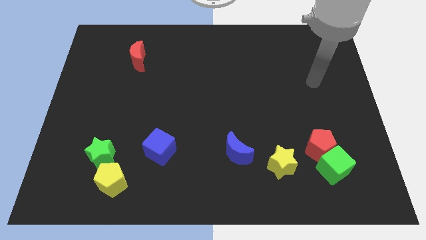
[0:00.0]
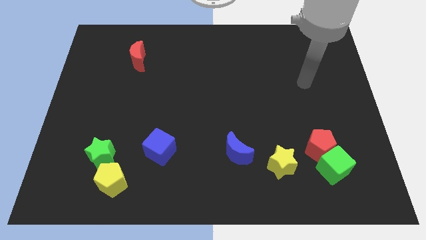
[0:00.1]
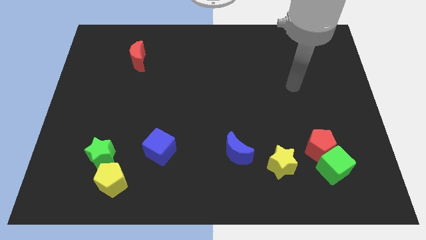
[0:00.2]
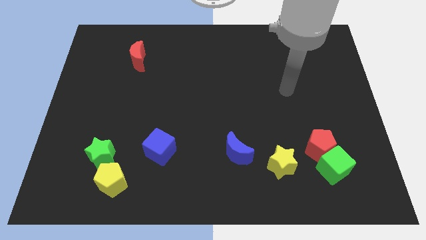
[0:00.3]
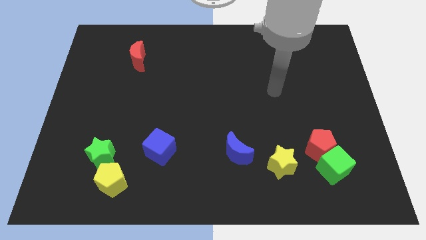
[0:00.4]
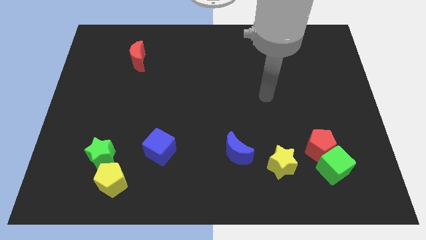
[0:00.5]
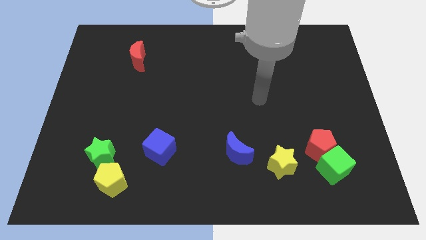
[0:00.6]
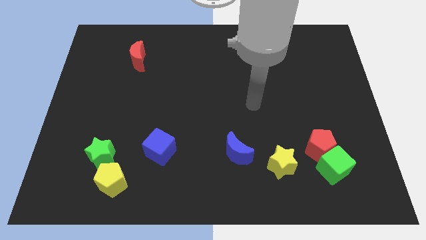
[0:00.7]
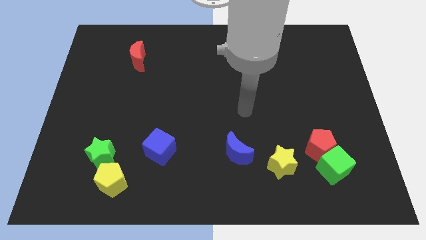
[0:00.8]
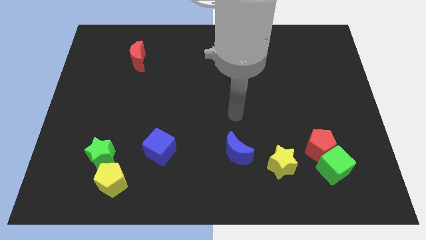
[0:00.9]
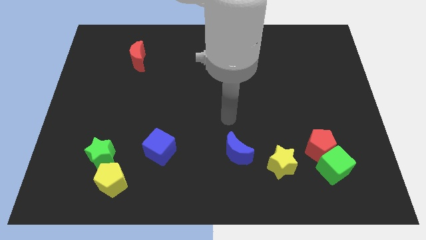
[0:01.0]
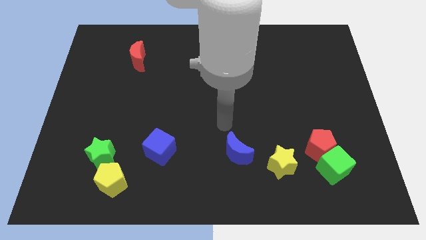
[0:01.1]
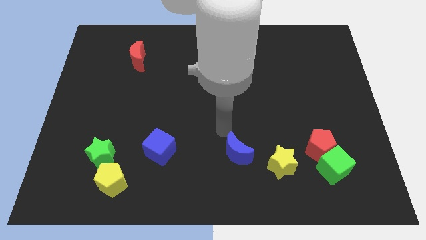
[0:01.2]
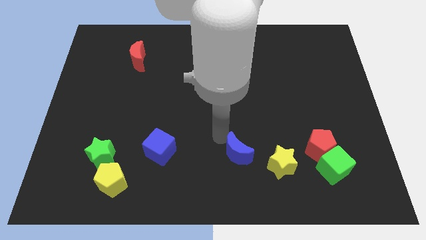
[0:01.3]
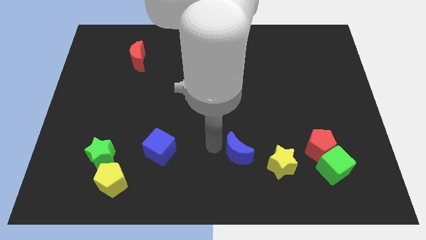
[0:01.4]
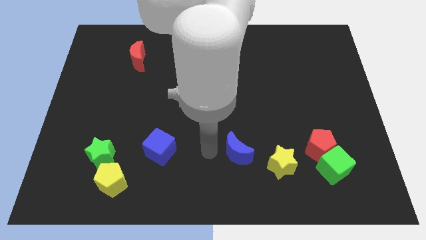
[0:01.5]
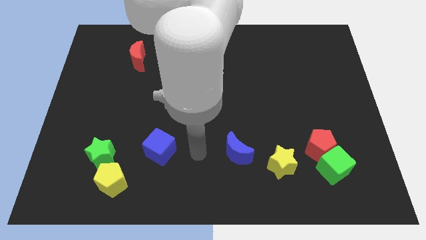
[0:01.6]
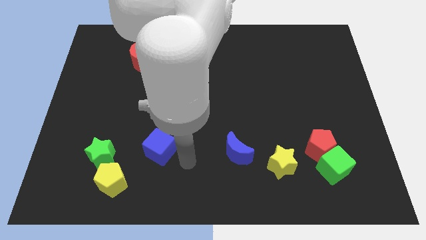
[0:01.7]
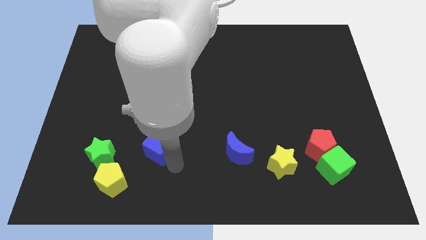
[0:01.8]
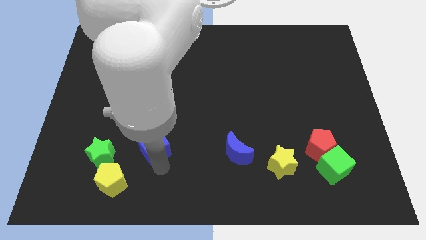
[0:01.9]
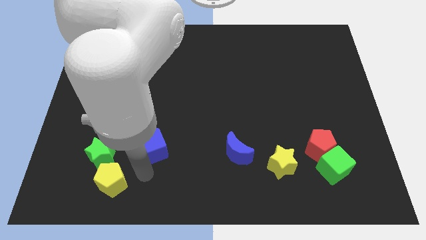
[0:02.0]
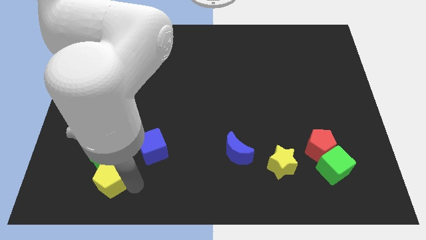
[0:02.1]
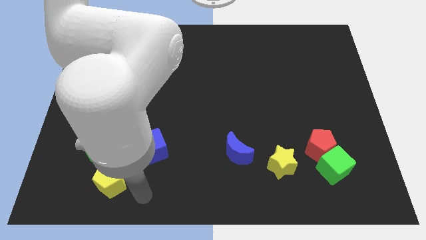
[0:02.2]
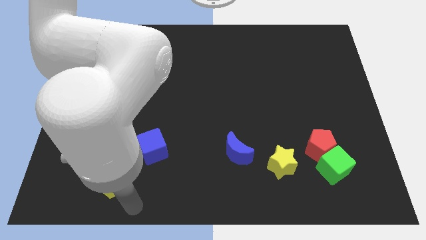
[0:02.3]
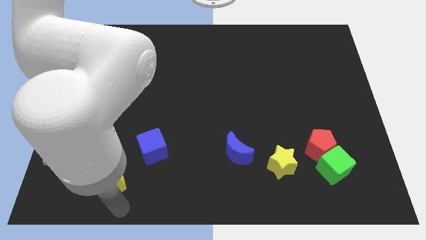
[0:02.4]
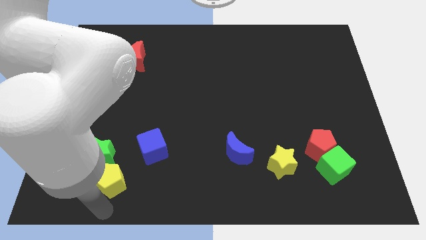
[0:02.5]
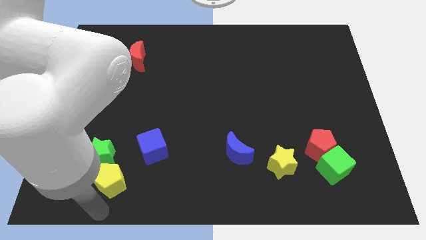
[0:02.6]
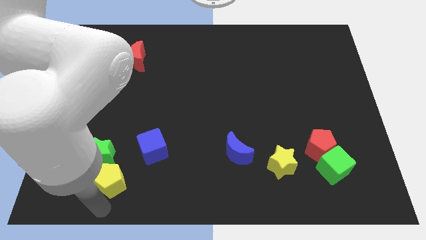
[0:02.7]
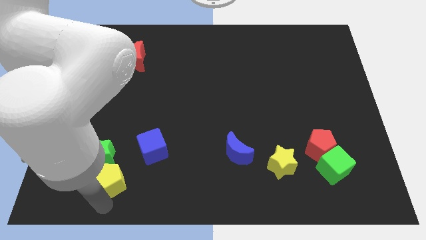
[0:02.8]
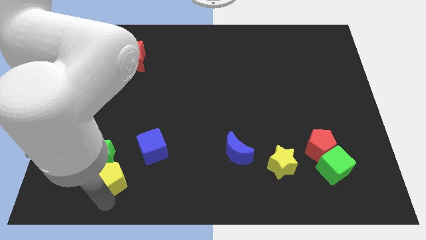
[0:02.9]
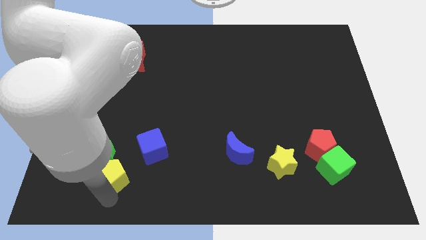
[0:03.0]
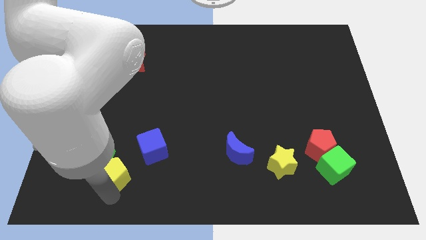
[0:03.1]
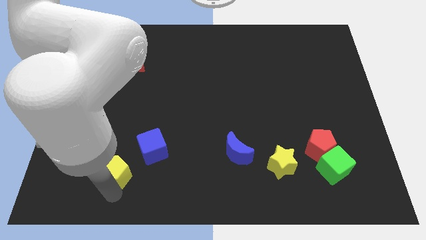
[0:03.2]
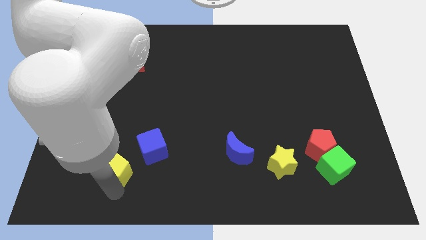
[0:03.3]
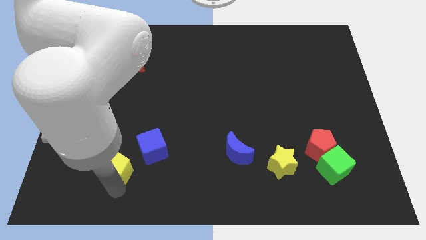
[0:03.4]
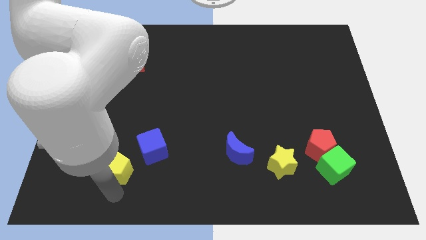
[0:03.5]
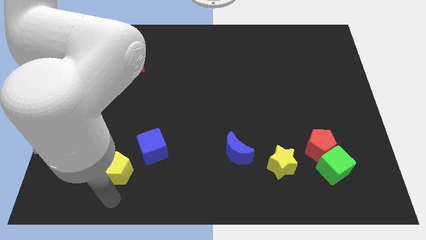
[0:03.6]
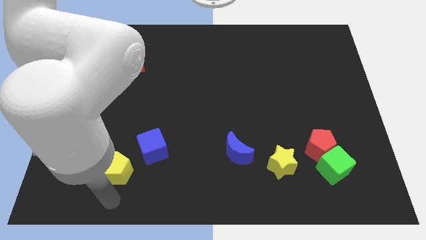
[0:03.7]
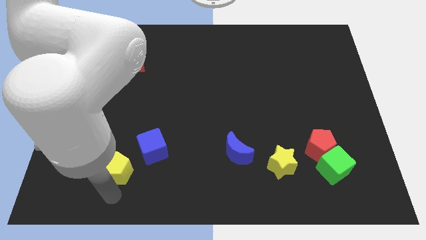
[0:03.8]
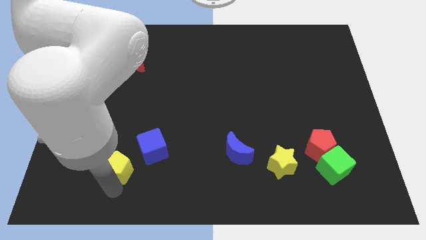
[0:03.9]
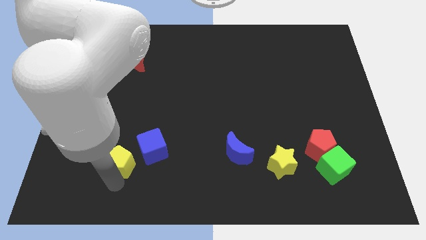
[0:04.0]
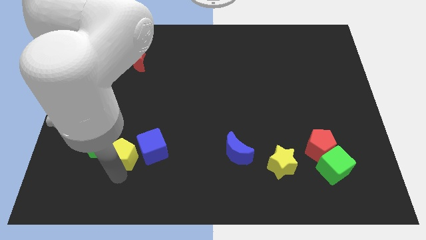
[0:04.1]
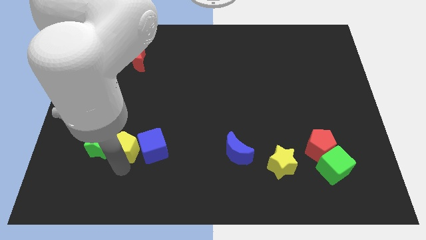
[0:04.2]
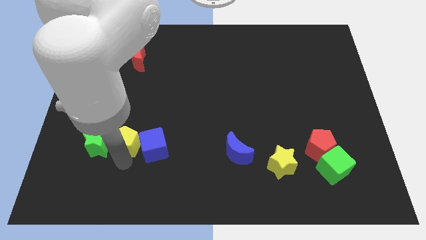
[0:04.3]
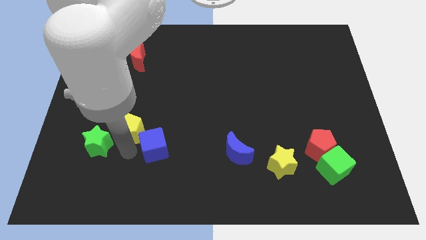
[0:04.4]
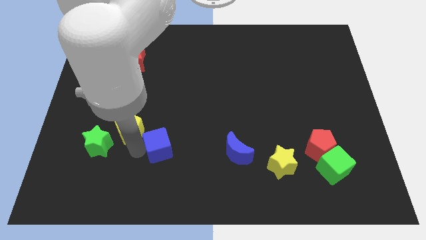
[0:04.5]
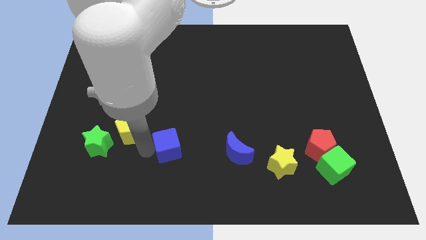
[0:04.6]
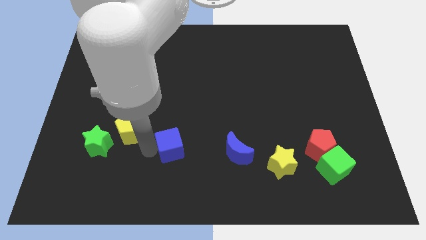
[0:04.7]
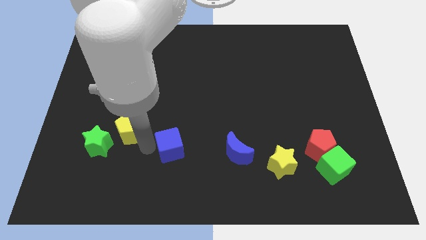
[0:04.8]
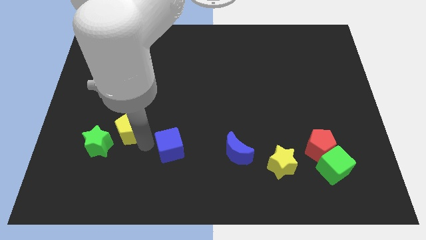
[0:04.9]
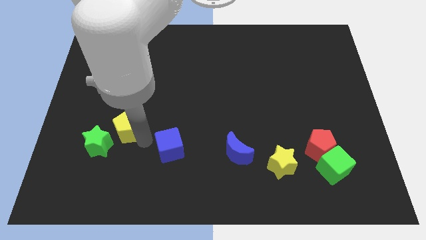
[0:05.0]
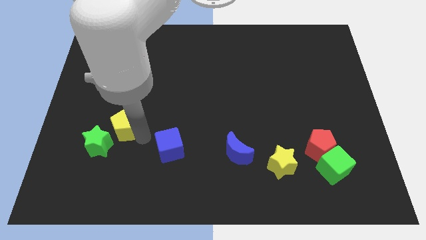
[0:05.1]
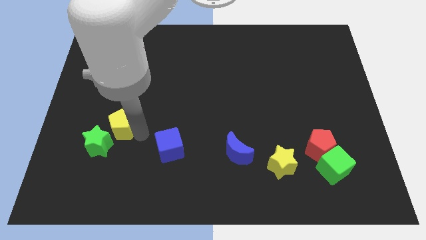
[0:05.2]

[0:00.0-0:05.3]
slide the yellow pentagon to the top side of the green star

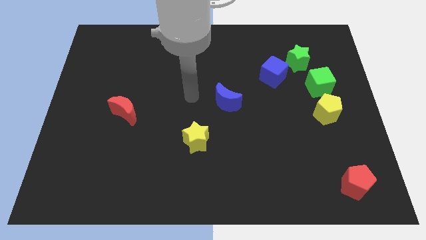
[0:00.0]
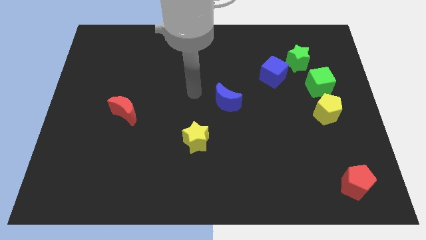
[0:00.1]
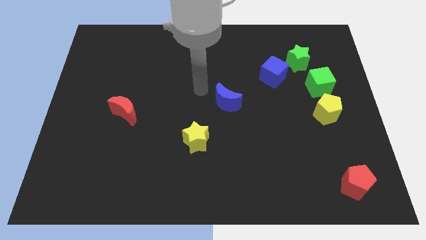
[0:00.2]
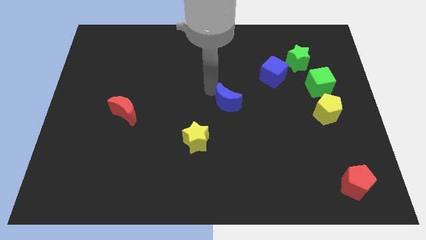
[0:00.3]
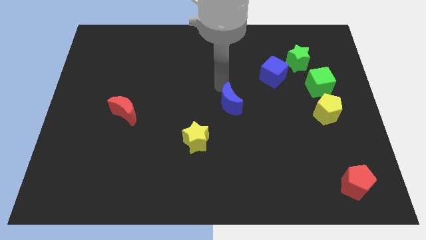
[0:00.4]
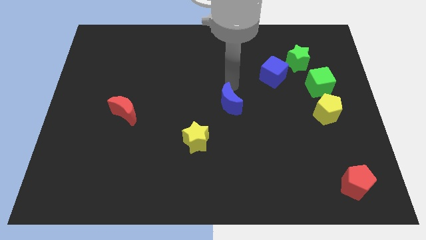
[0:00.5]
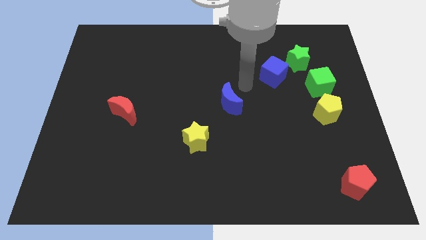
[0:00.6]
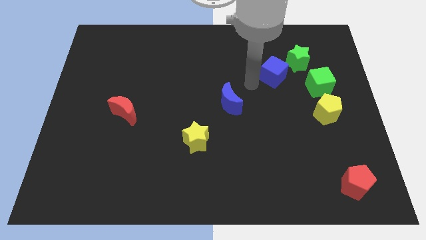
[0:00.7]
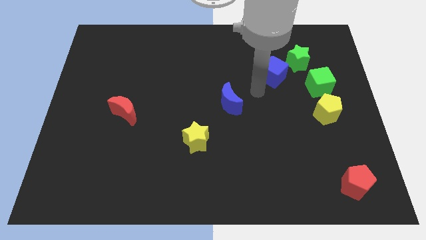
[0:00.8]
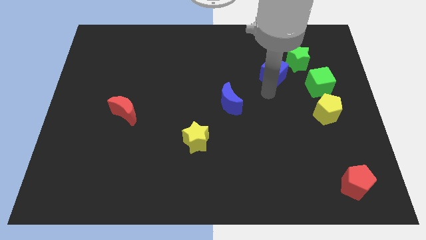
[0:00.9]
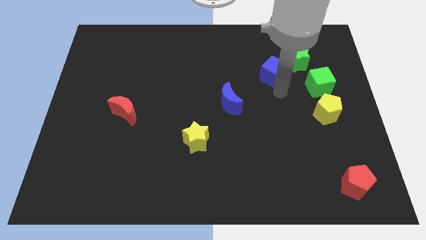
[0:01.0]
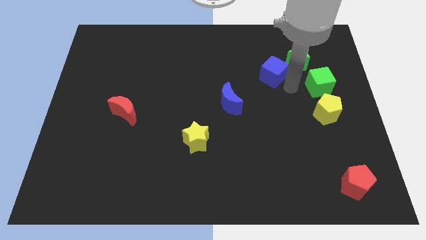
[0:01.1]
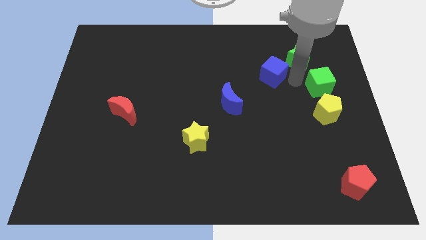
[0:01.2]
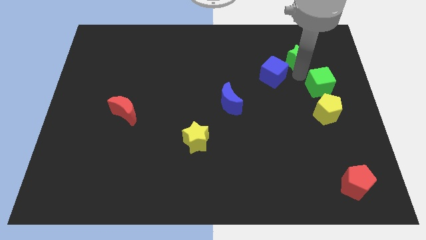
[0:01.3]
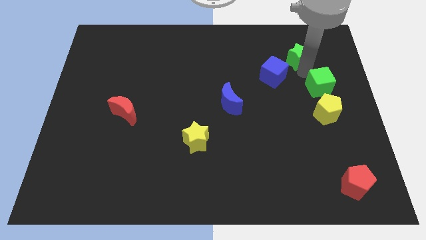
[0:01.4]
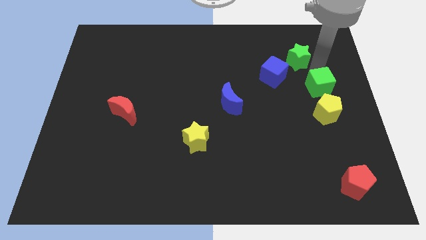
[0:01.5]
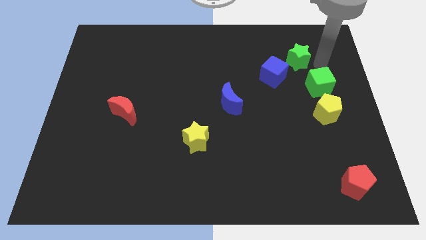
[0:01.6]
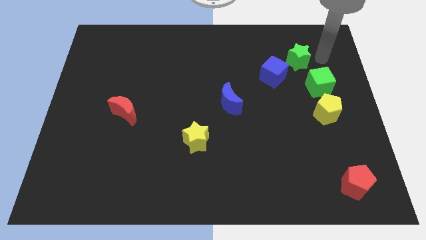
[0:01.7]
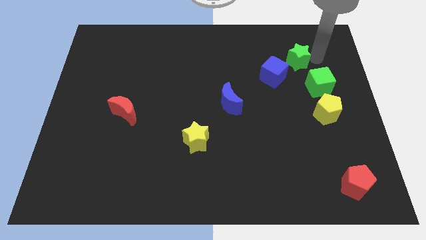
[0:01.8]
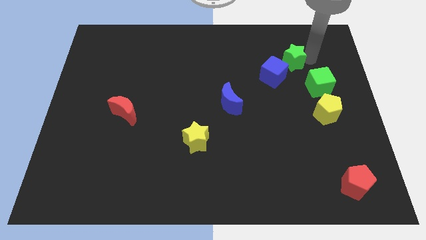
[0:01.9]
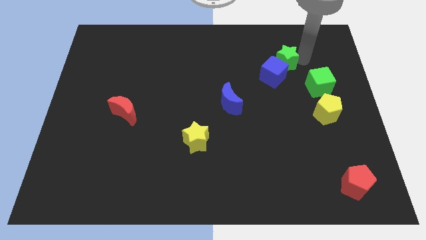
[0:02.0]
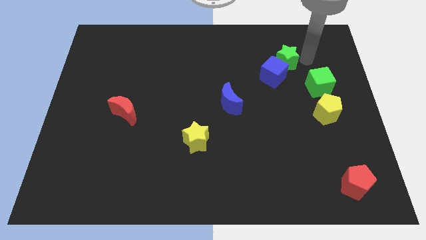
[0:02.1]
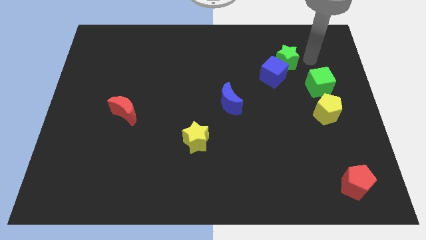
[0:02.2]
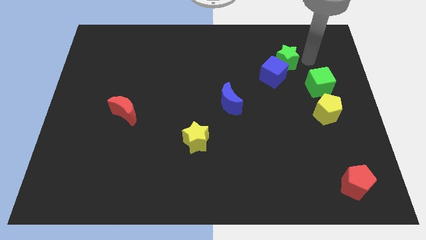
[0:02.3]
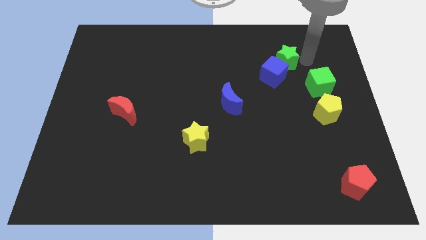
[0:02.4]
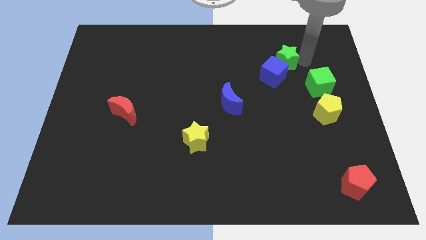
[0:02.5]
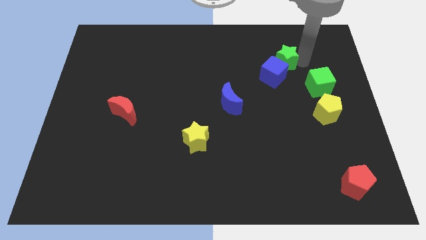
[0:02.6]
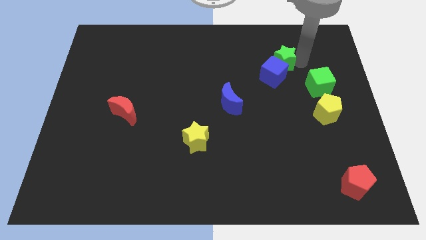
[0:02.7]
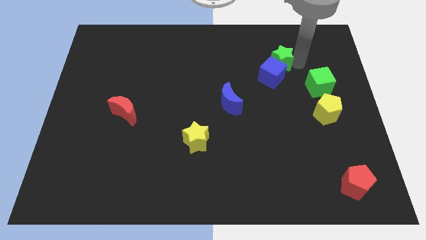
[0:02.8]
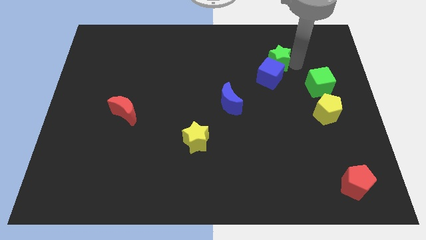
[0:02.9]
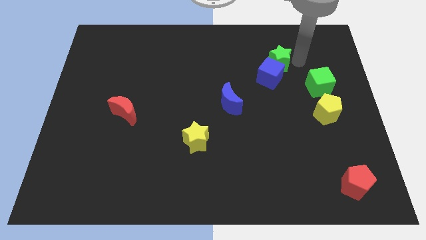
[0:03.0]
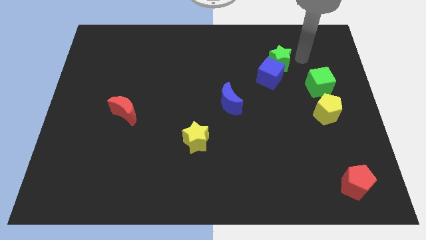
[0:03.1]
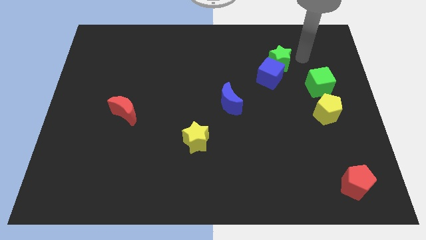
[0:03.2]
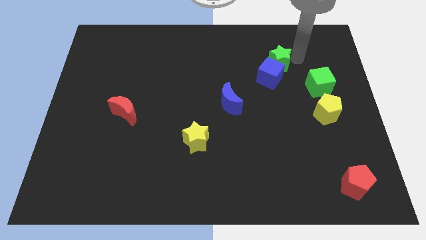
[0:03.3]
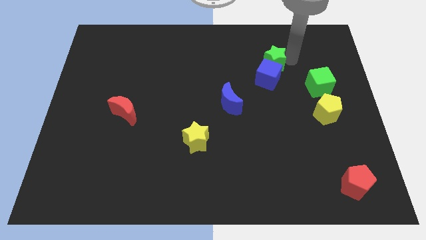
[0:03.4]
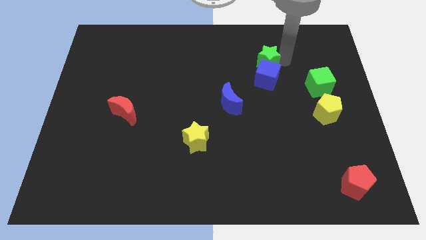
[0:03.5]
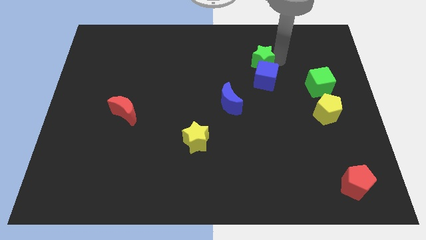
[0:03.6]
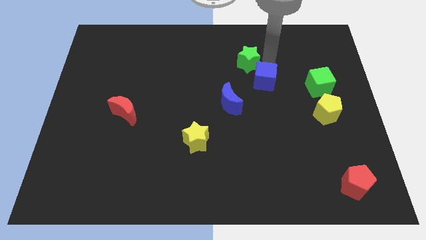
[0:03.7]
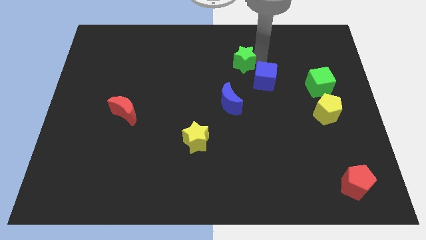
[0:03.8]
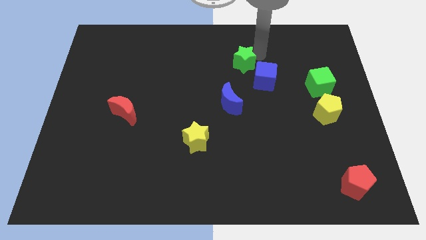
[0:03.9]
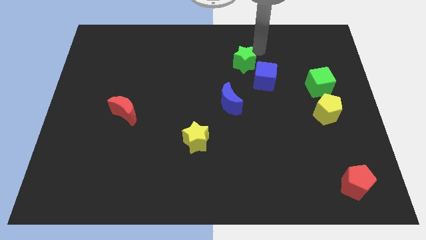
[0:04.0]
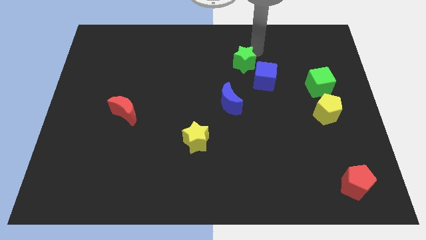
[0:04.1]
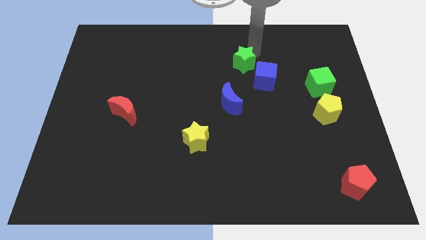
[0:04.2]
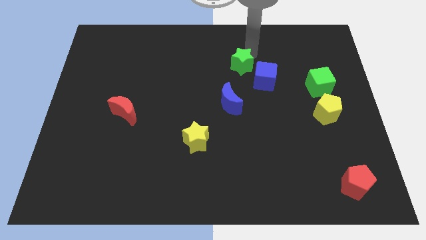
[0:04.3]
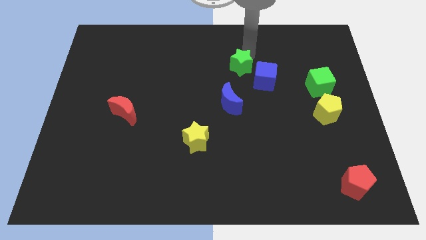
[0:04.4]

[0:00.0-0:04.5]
push the green star to the left side of the blue cube
